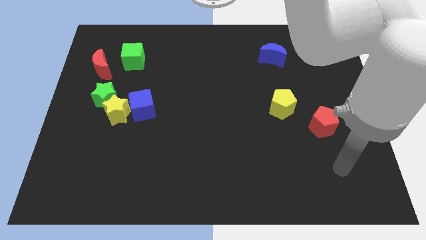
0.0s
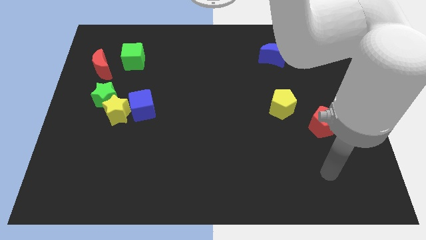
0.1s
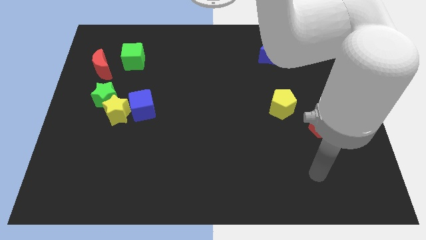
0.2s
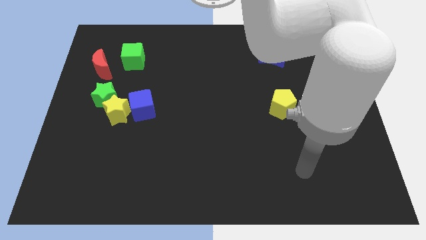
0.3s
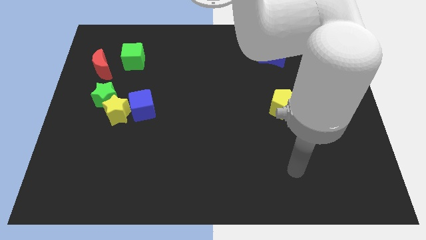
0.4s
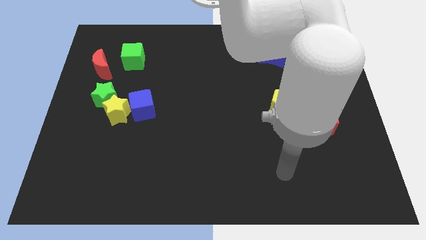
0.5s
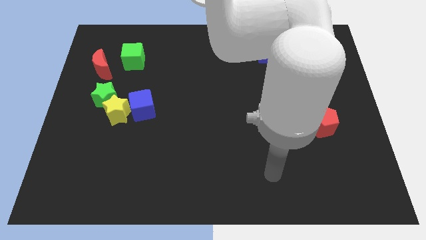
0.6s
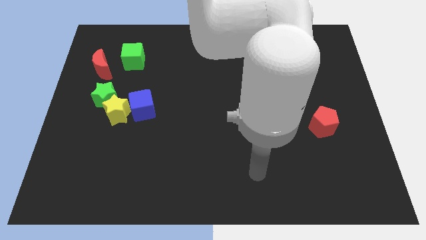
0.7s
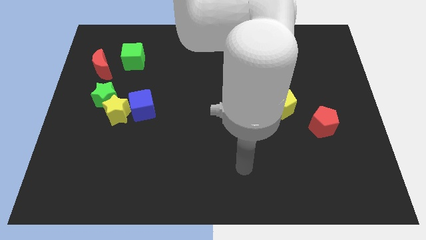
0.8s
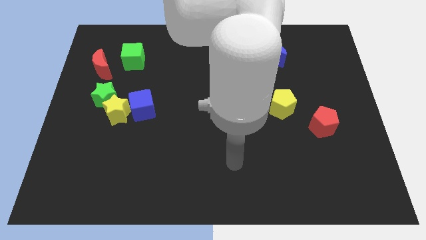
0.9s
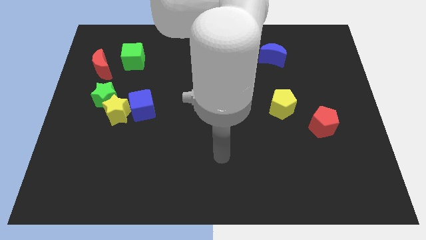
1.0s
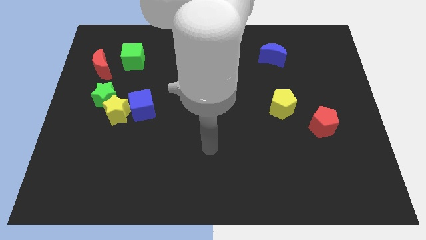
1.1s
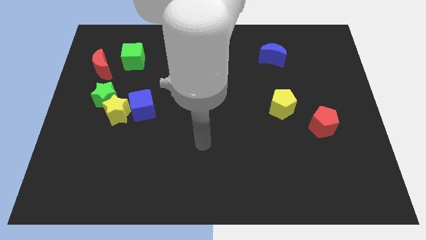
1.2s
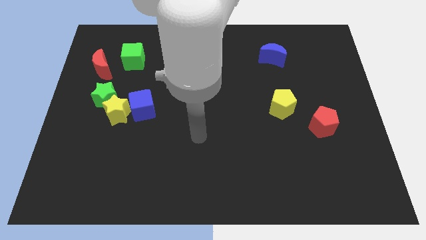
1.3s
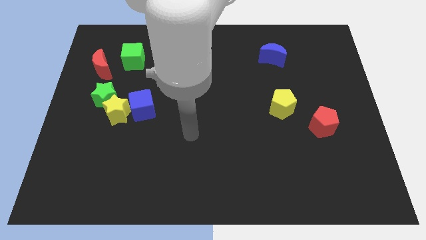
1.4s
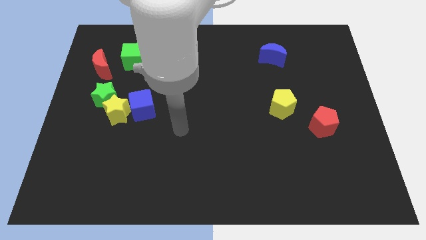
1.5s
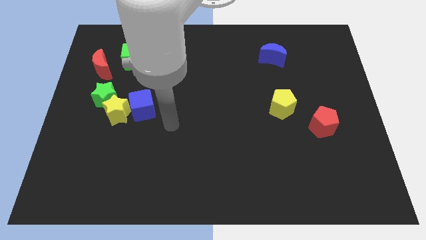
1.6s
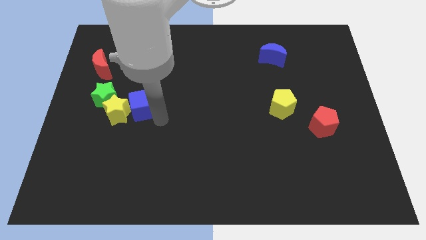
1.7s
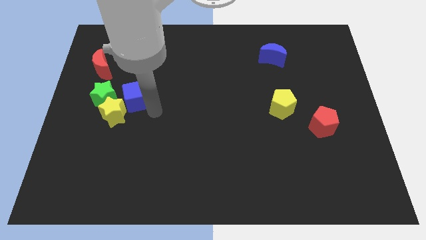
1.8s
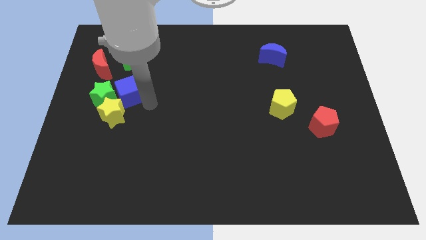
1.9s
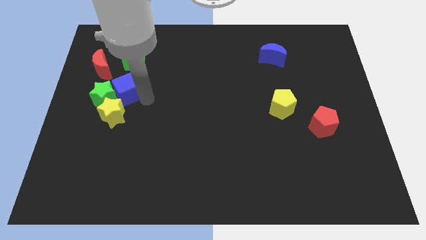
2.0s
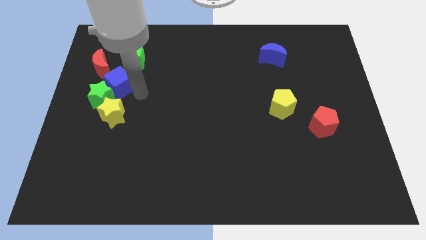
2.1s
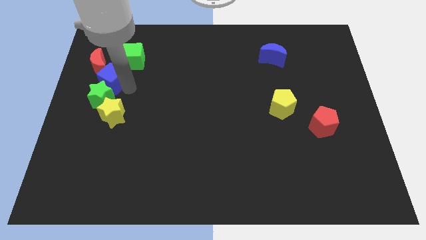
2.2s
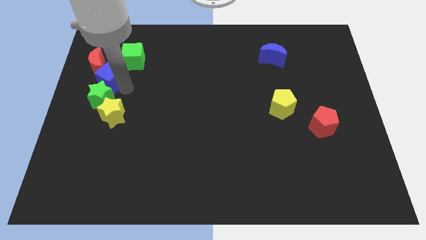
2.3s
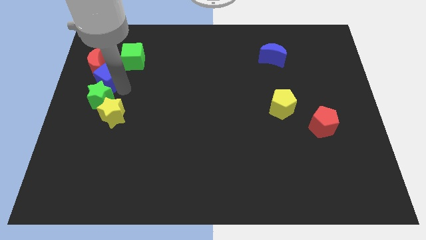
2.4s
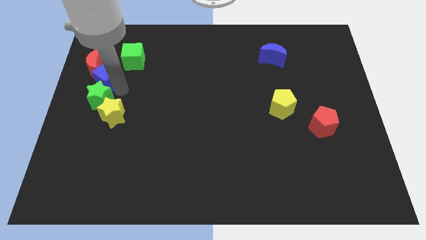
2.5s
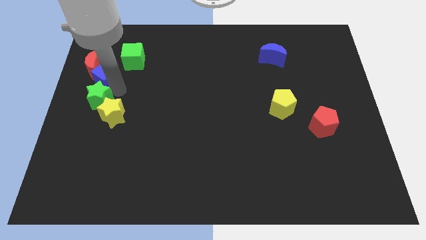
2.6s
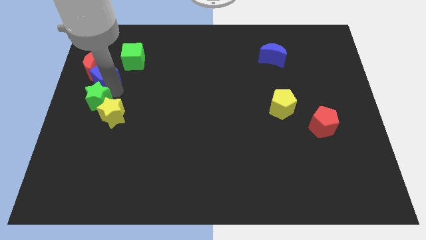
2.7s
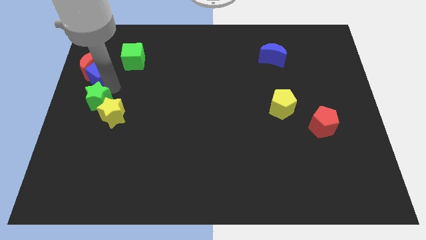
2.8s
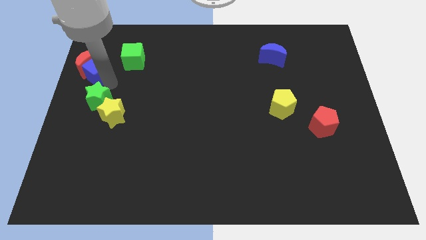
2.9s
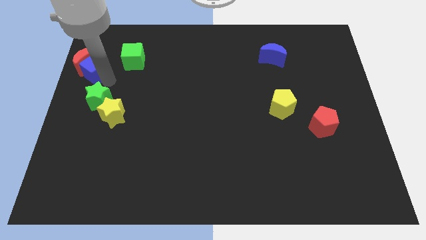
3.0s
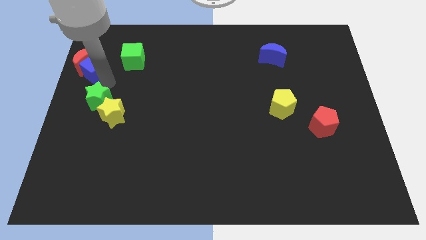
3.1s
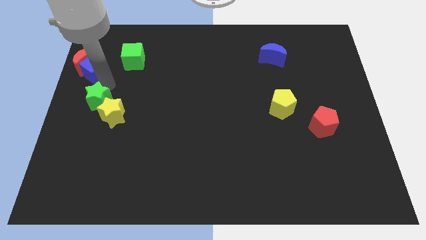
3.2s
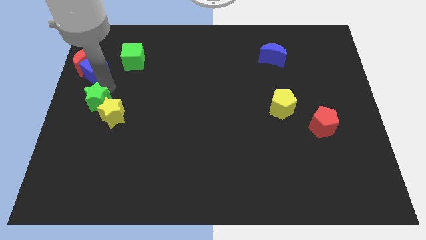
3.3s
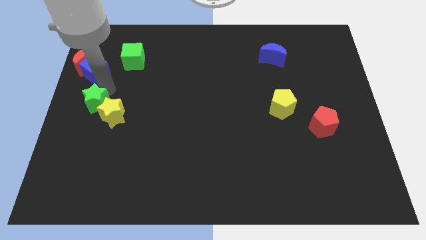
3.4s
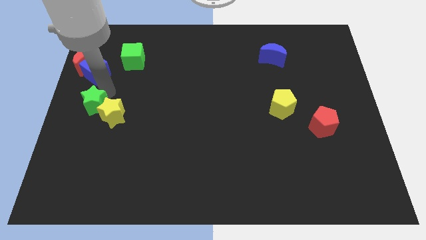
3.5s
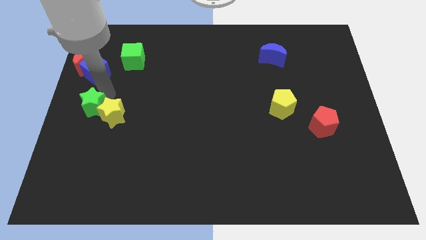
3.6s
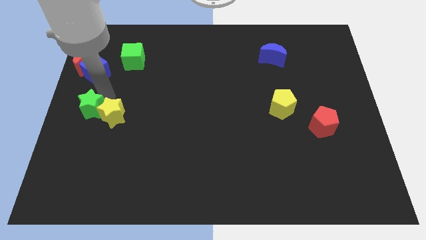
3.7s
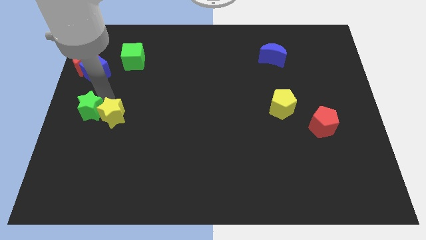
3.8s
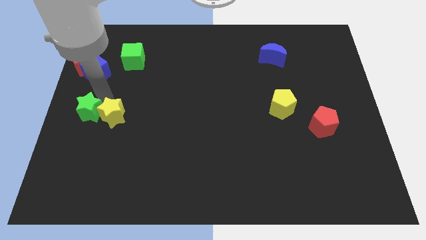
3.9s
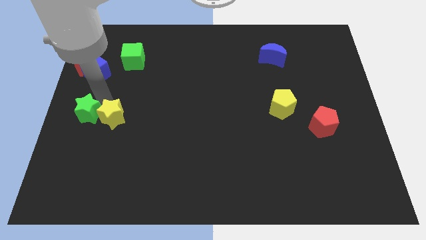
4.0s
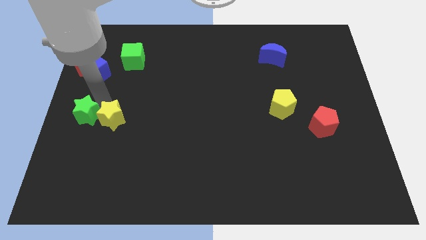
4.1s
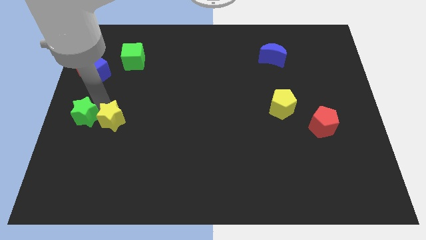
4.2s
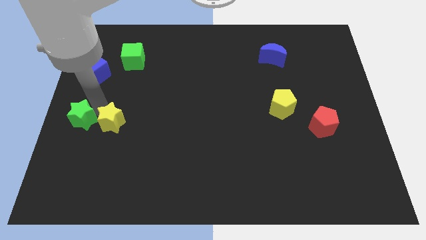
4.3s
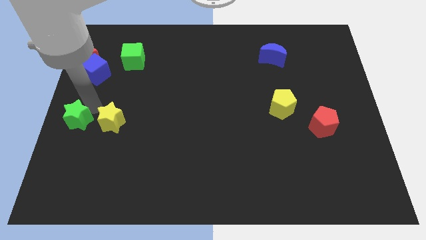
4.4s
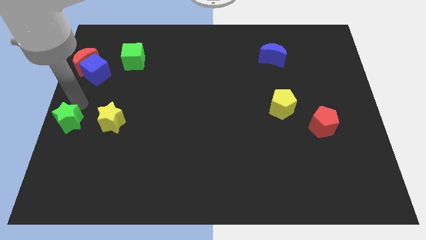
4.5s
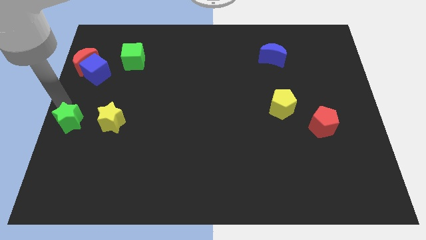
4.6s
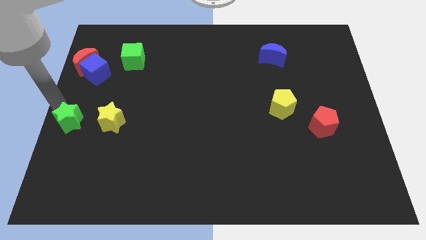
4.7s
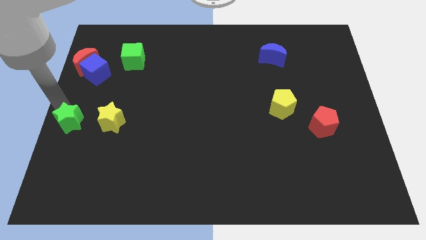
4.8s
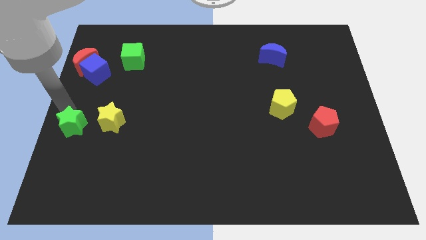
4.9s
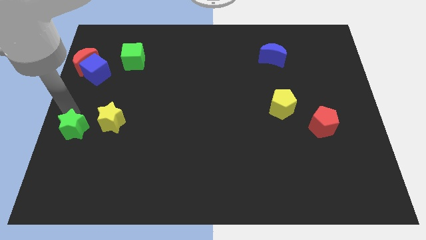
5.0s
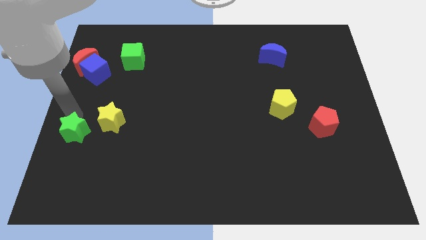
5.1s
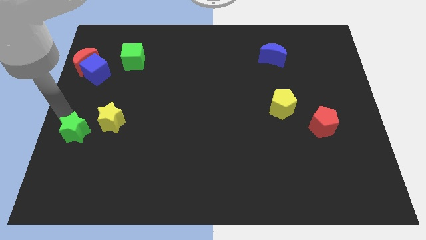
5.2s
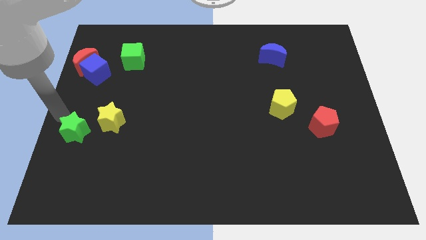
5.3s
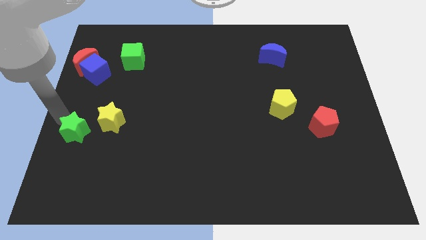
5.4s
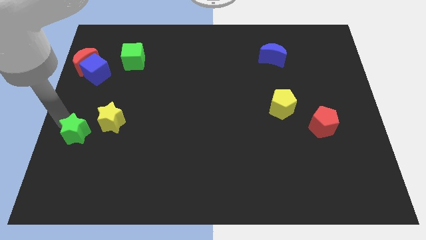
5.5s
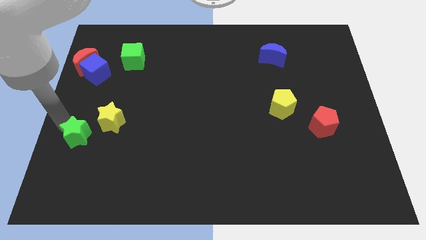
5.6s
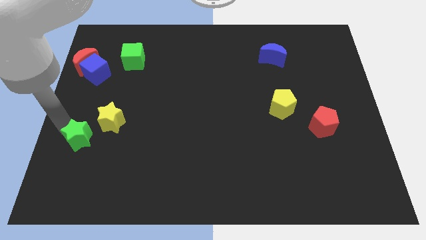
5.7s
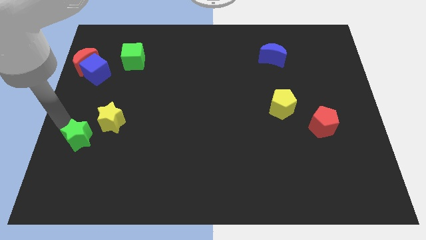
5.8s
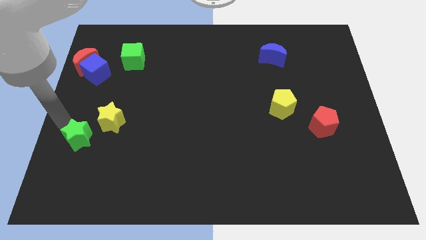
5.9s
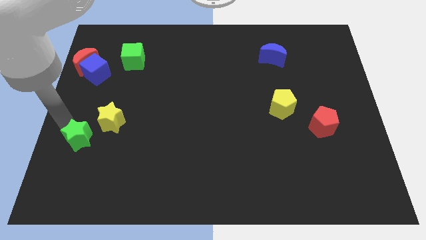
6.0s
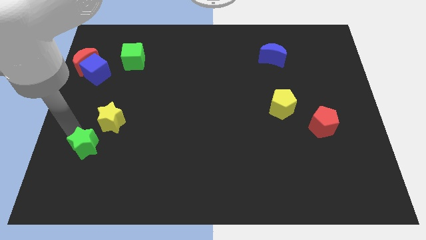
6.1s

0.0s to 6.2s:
slide the green star to the bottom side of the yellow star

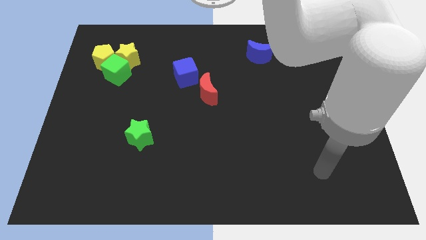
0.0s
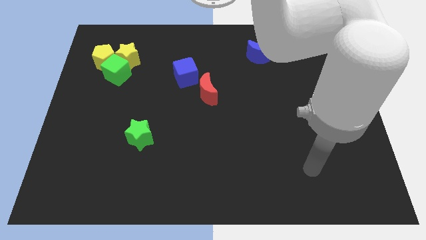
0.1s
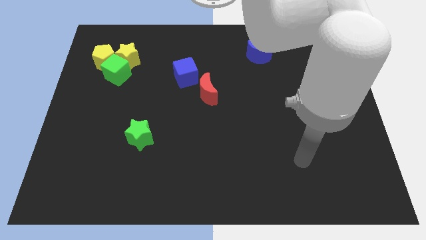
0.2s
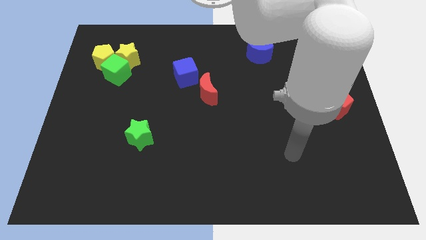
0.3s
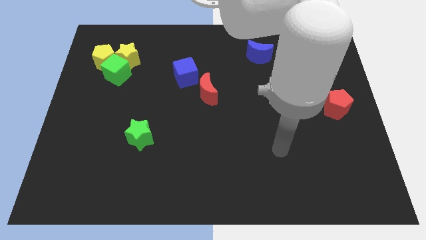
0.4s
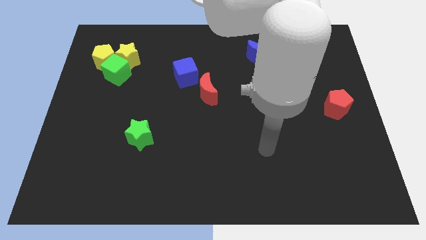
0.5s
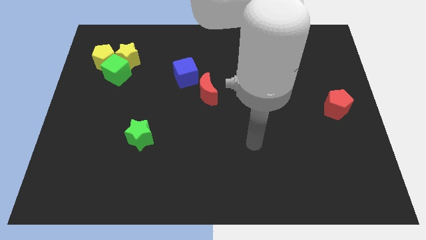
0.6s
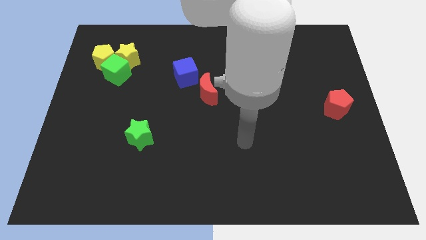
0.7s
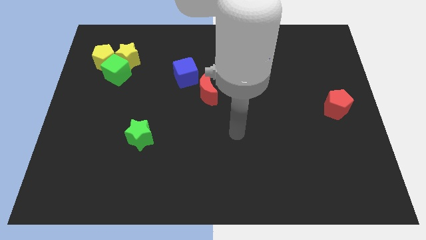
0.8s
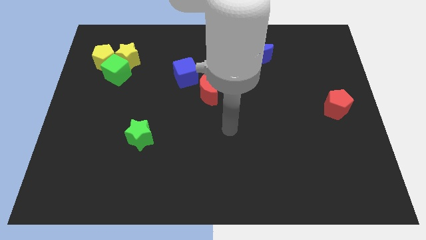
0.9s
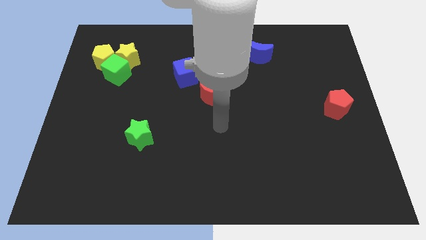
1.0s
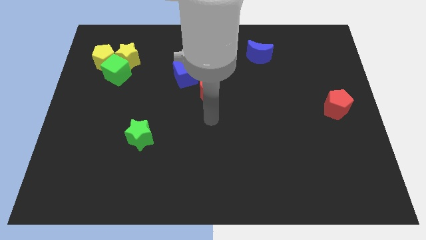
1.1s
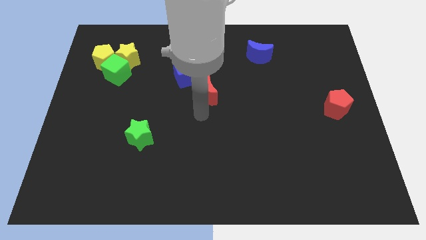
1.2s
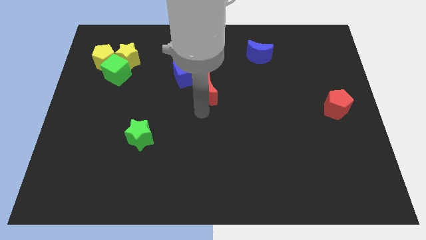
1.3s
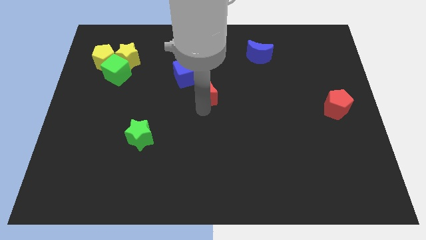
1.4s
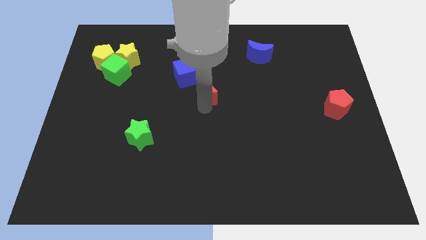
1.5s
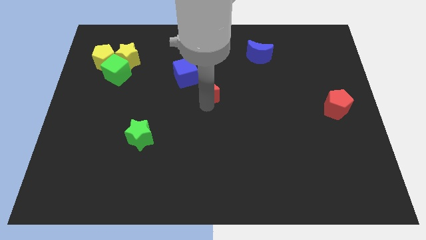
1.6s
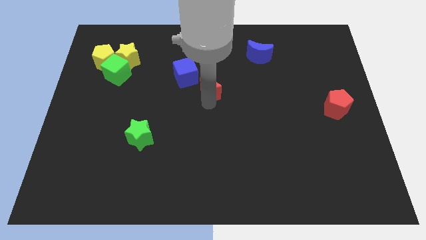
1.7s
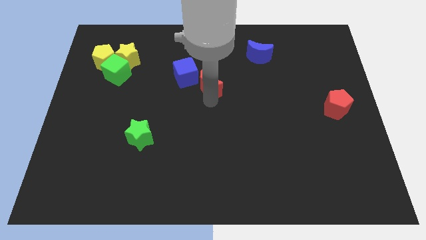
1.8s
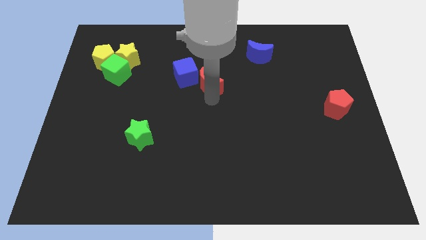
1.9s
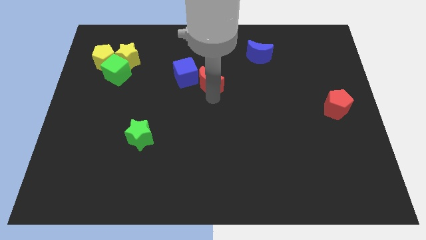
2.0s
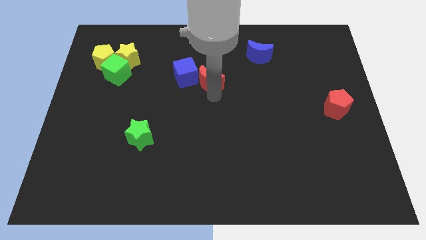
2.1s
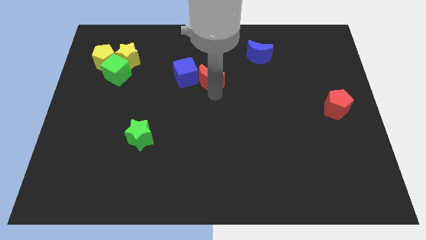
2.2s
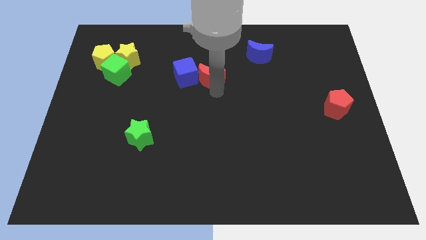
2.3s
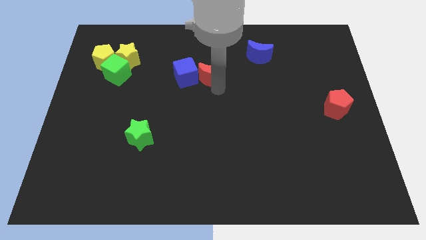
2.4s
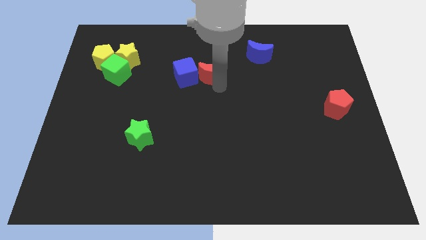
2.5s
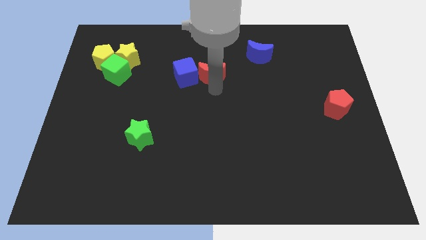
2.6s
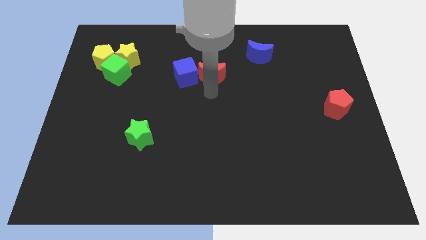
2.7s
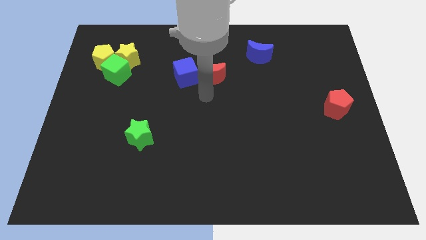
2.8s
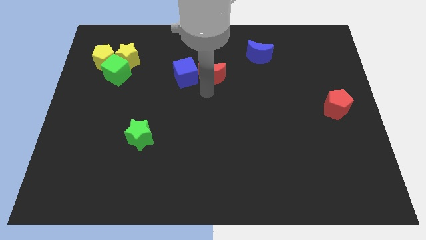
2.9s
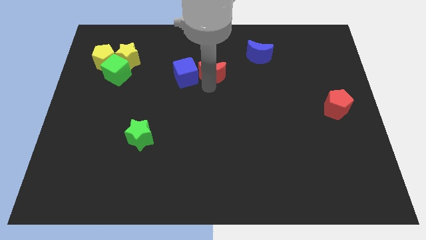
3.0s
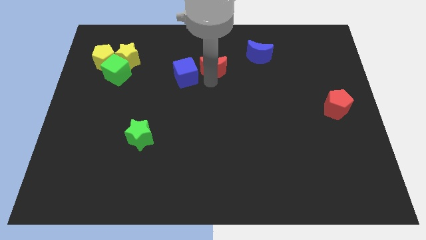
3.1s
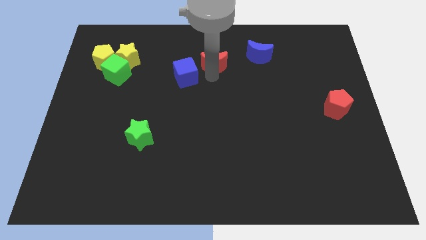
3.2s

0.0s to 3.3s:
move the red moon to the left side of the blue moon
